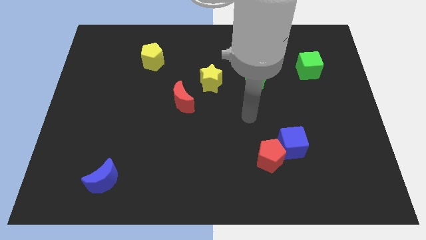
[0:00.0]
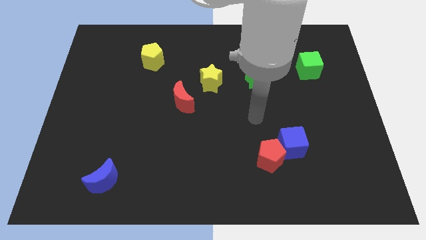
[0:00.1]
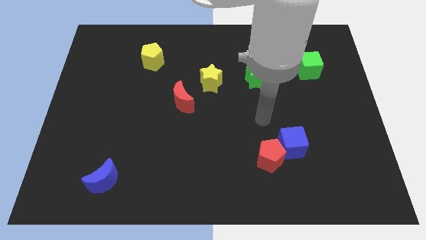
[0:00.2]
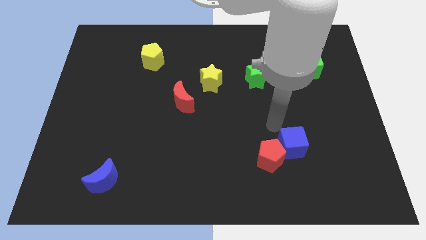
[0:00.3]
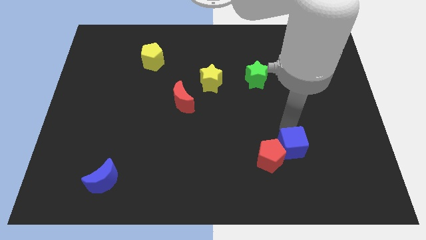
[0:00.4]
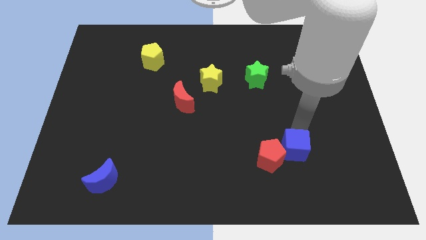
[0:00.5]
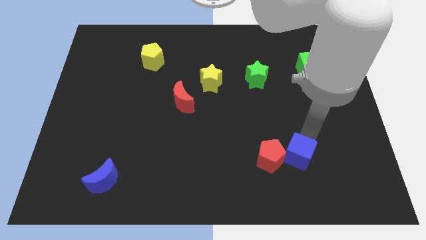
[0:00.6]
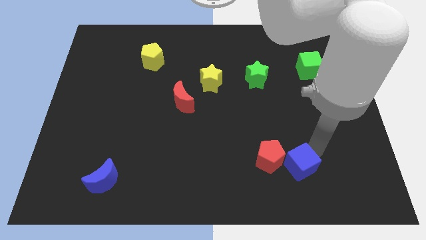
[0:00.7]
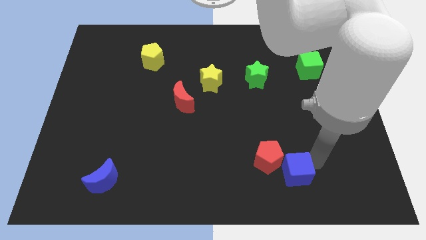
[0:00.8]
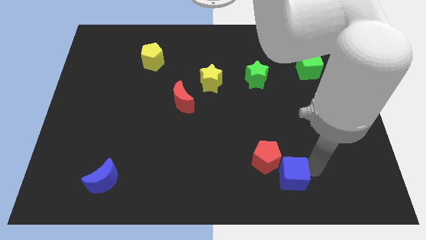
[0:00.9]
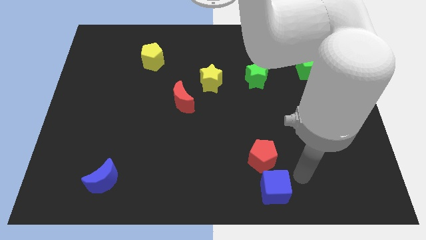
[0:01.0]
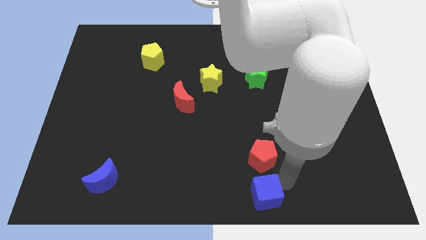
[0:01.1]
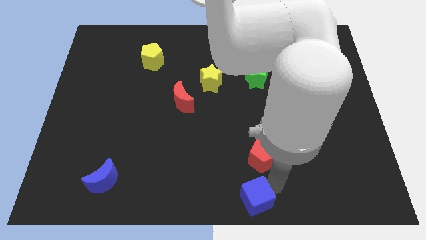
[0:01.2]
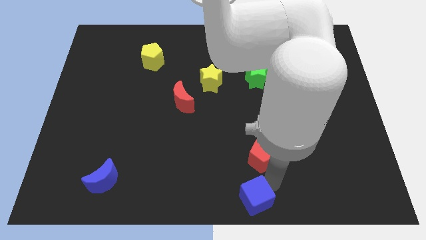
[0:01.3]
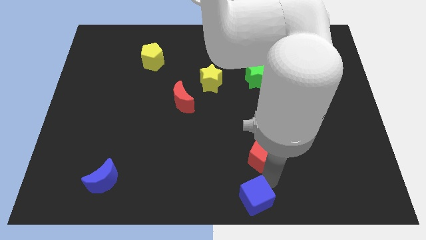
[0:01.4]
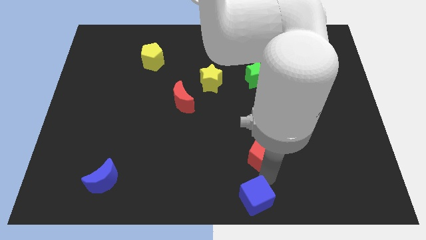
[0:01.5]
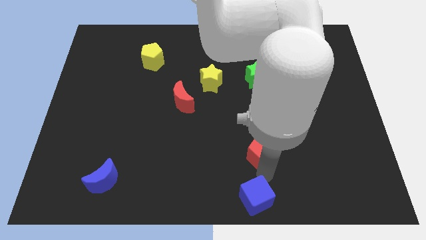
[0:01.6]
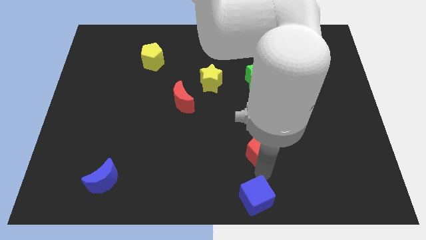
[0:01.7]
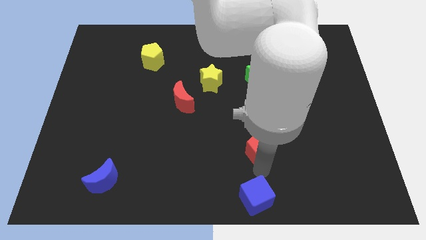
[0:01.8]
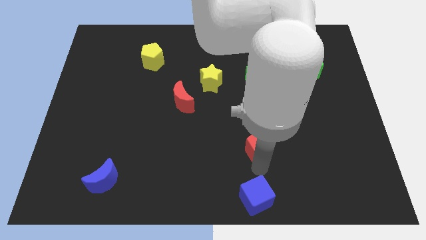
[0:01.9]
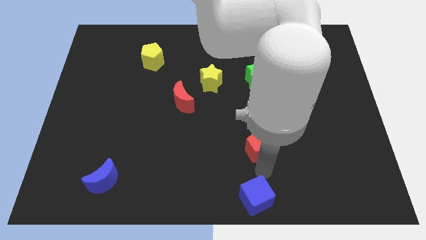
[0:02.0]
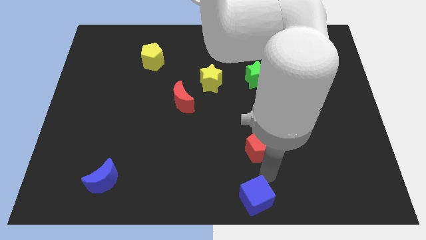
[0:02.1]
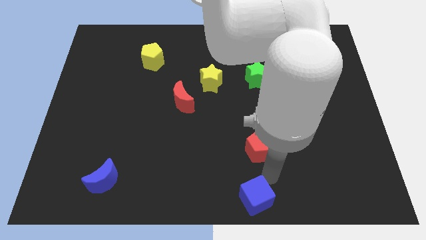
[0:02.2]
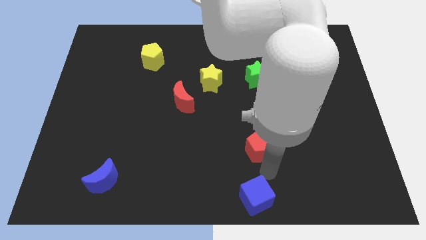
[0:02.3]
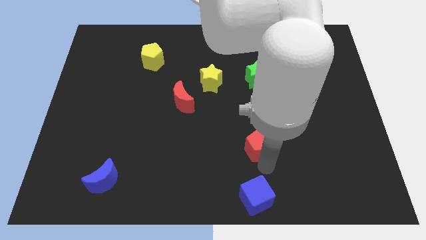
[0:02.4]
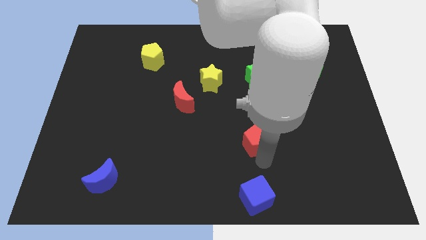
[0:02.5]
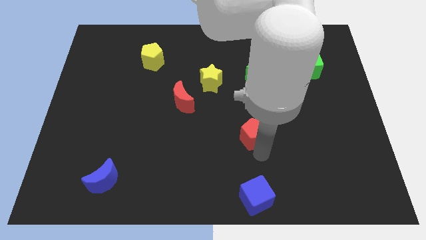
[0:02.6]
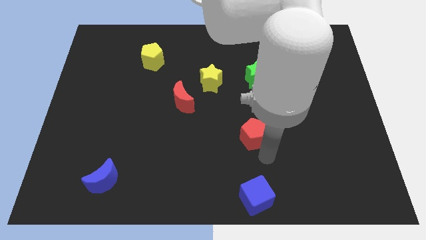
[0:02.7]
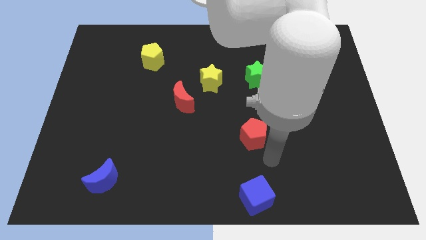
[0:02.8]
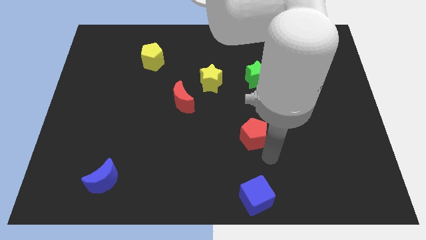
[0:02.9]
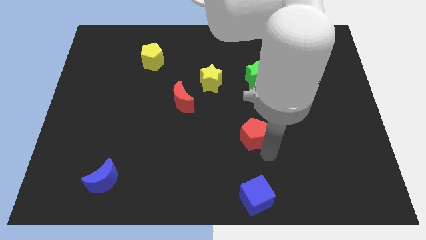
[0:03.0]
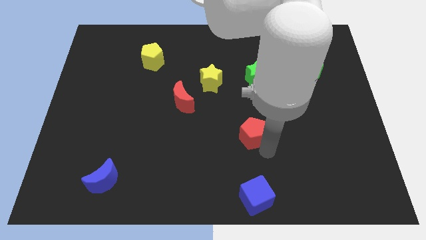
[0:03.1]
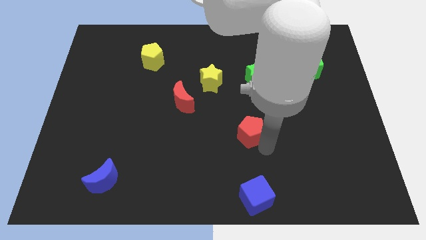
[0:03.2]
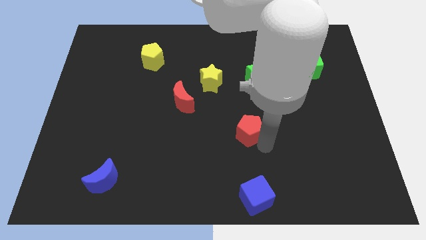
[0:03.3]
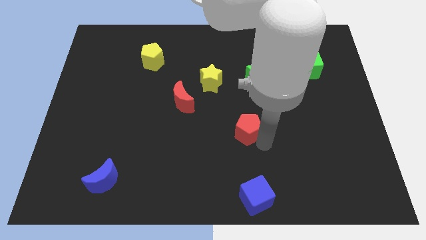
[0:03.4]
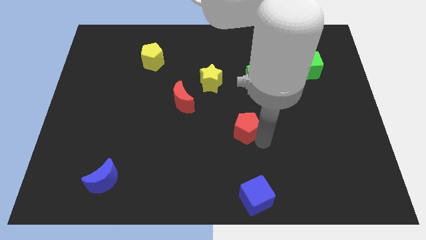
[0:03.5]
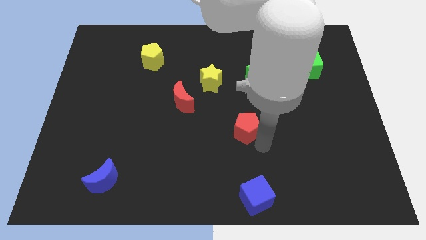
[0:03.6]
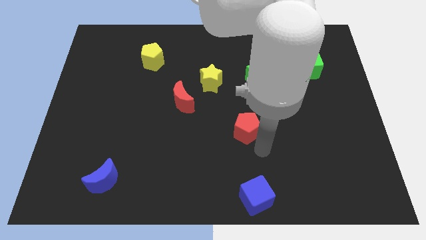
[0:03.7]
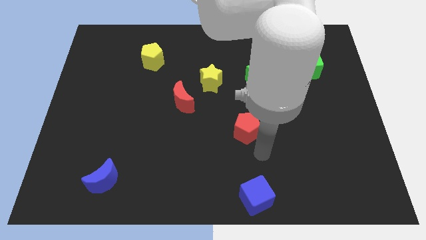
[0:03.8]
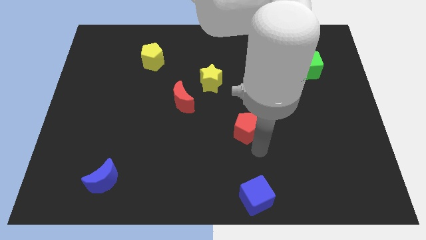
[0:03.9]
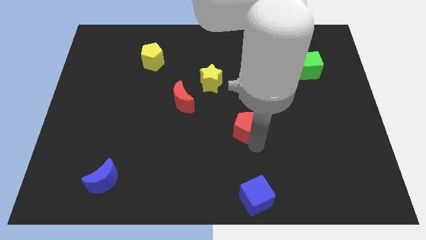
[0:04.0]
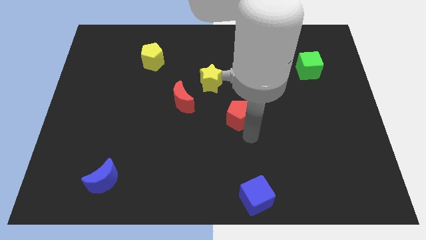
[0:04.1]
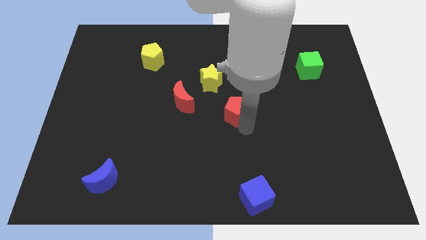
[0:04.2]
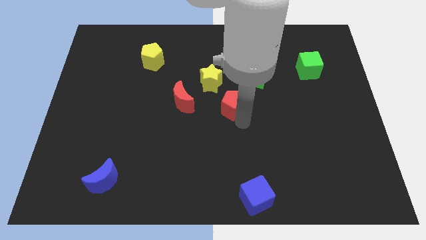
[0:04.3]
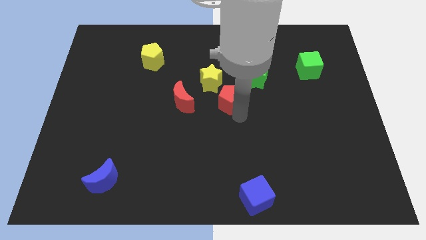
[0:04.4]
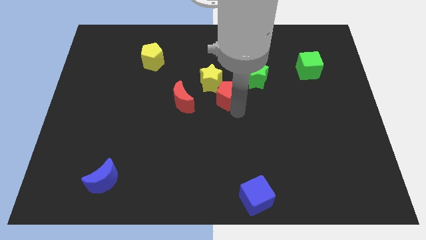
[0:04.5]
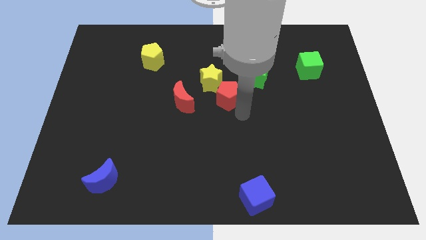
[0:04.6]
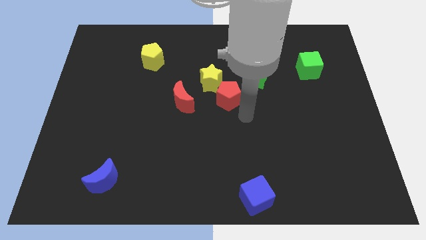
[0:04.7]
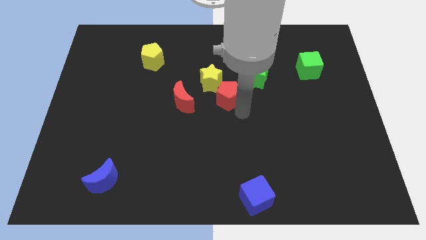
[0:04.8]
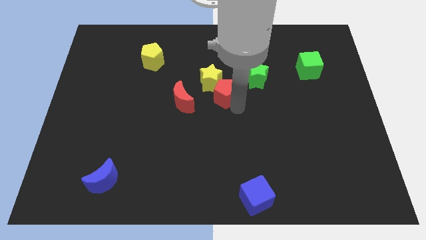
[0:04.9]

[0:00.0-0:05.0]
slide the red pentagon close to the yellow star

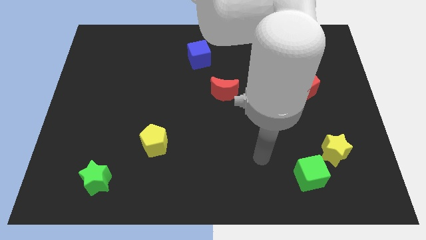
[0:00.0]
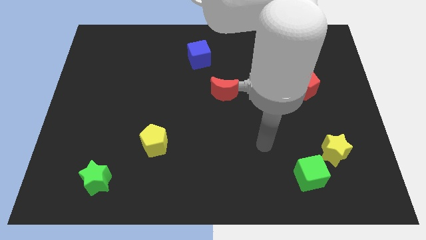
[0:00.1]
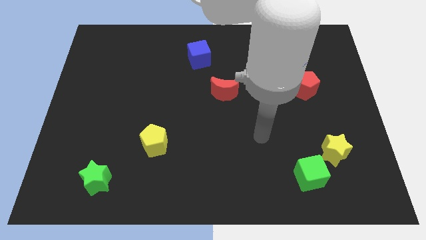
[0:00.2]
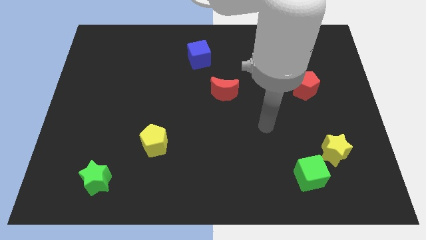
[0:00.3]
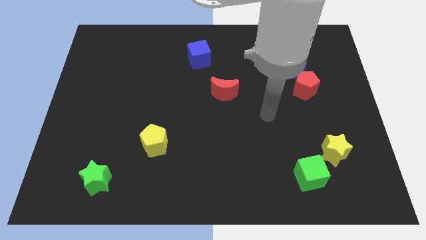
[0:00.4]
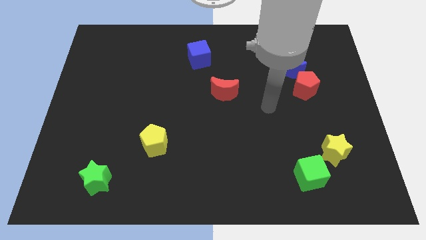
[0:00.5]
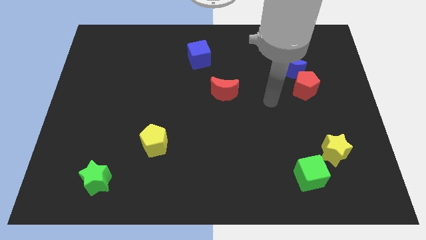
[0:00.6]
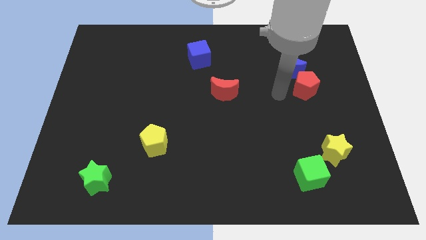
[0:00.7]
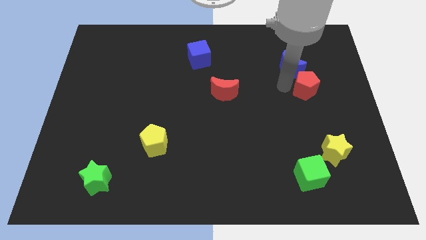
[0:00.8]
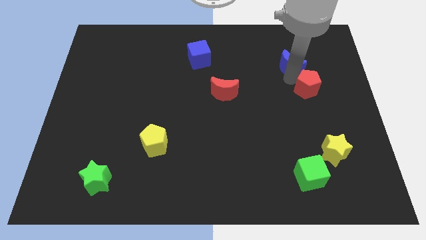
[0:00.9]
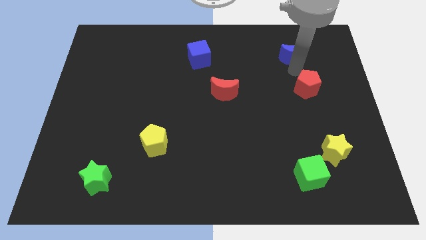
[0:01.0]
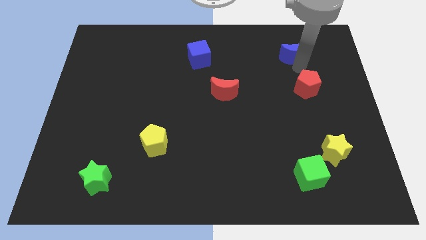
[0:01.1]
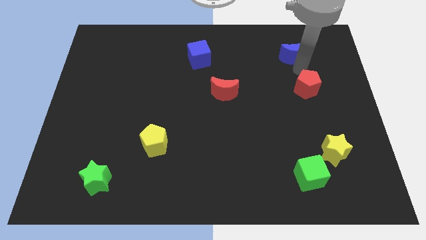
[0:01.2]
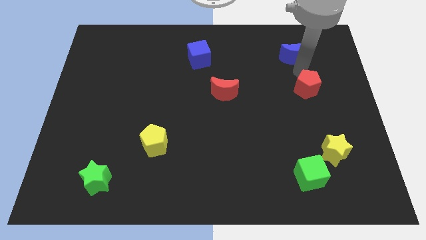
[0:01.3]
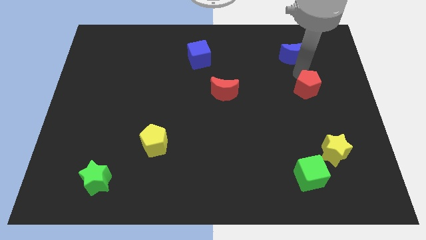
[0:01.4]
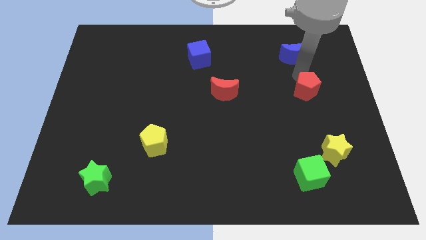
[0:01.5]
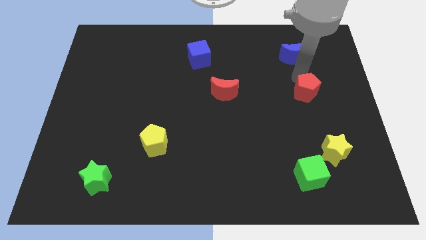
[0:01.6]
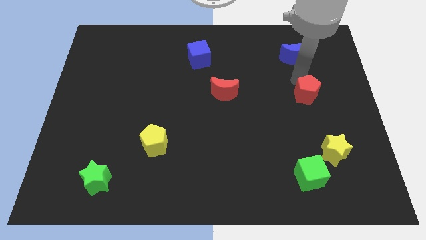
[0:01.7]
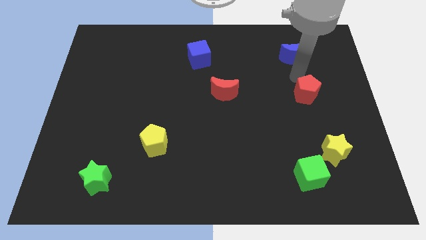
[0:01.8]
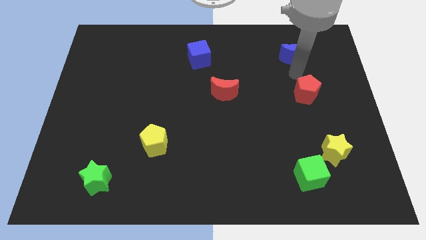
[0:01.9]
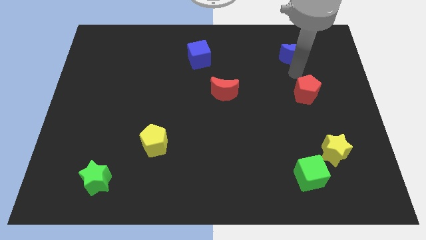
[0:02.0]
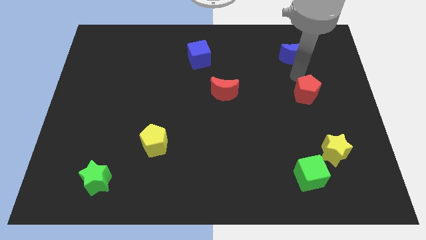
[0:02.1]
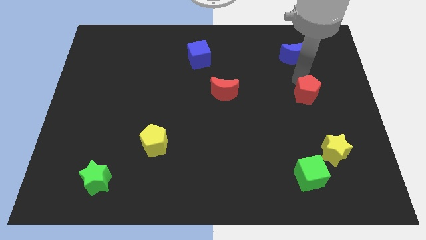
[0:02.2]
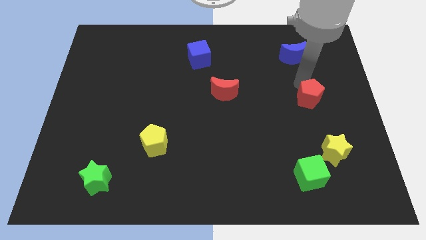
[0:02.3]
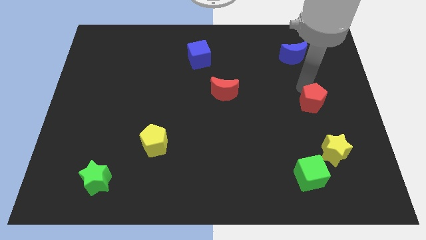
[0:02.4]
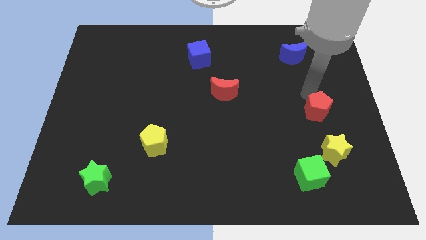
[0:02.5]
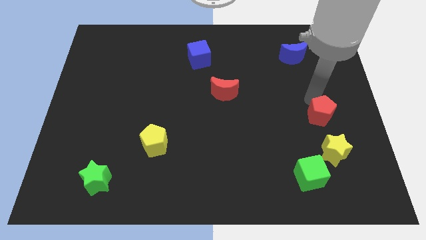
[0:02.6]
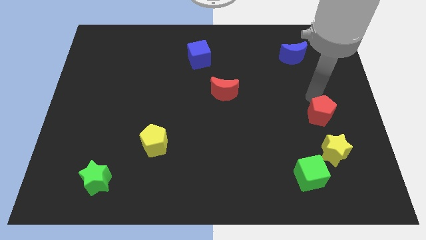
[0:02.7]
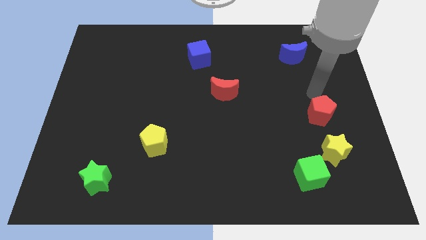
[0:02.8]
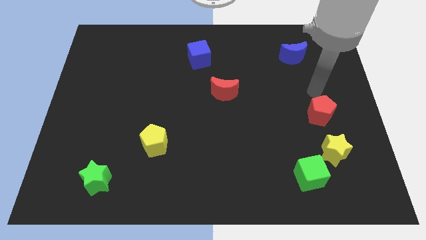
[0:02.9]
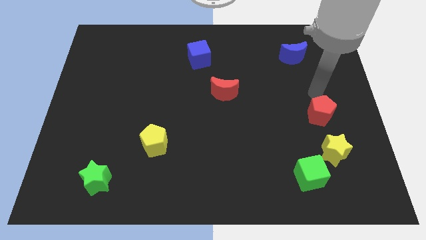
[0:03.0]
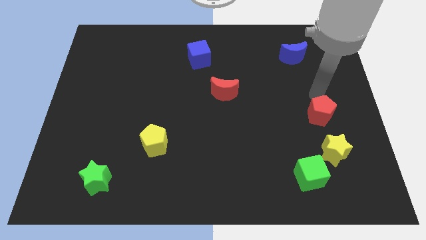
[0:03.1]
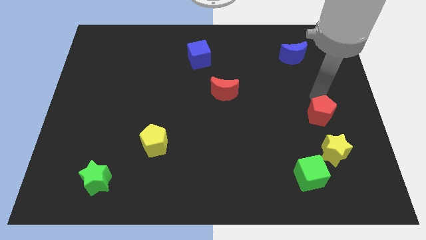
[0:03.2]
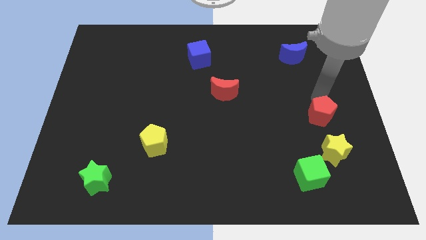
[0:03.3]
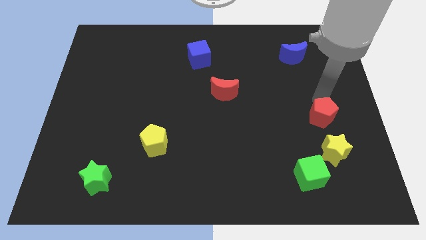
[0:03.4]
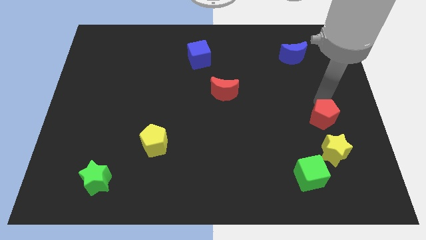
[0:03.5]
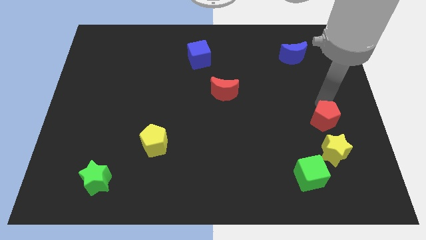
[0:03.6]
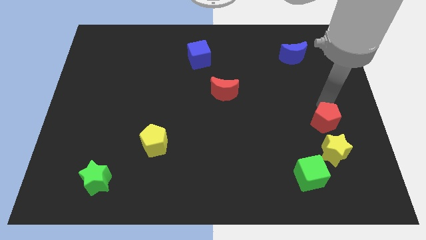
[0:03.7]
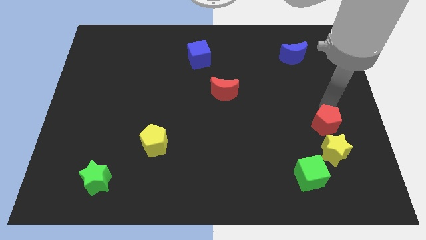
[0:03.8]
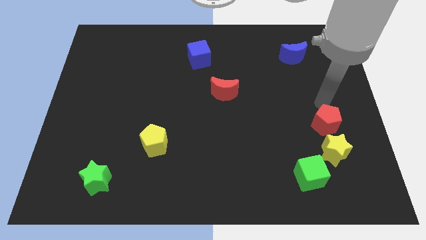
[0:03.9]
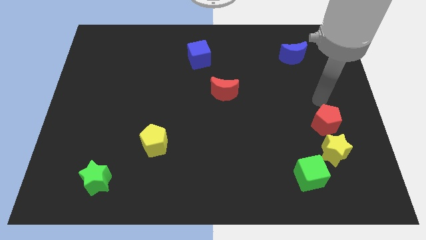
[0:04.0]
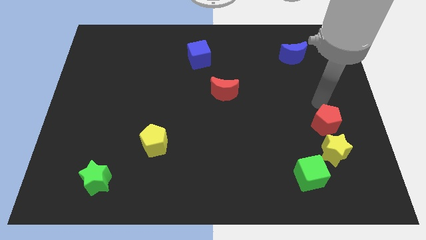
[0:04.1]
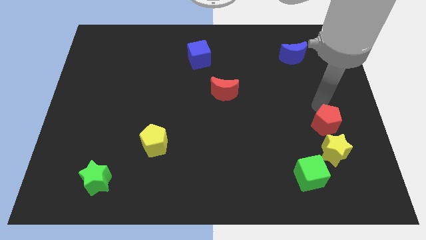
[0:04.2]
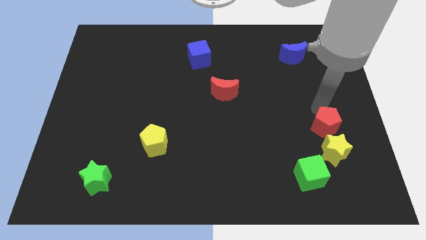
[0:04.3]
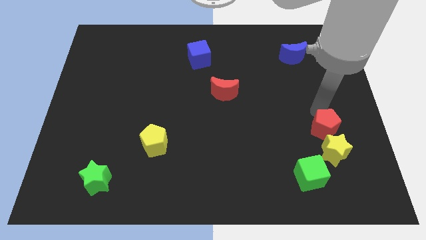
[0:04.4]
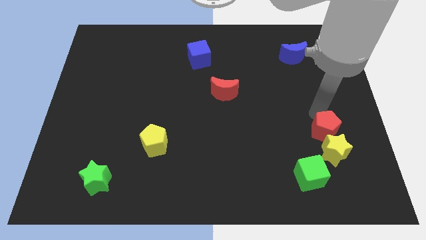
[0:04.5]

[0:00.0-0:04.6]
move the red pentagon close to the yellow star
